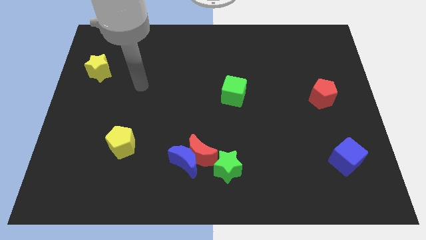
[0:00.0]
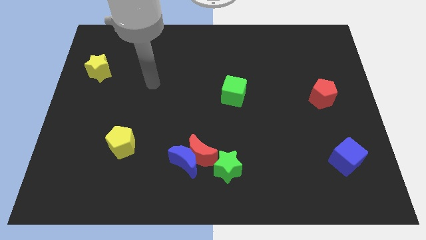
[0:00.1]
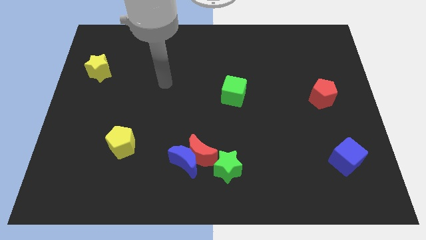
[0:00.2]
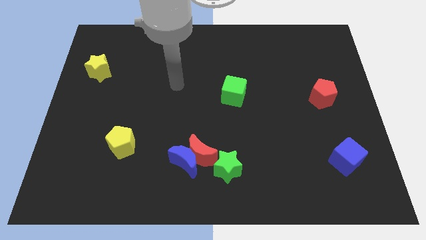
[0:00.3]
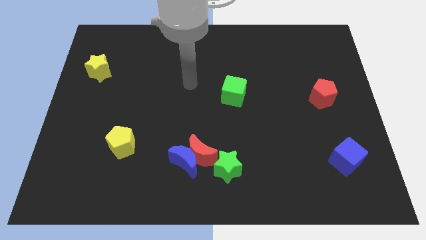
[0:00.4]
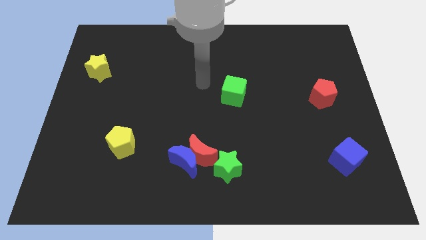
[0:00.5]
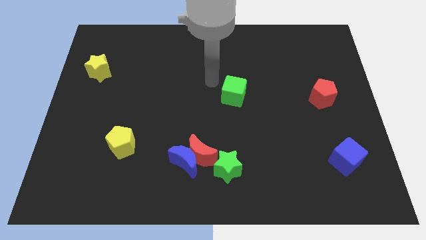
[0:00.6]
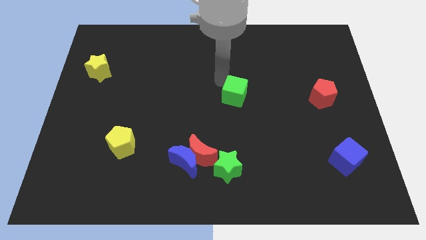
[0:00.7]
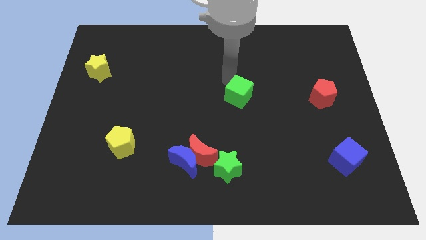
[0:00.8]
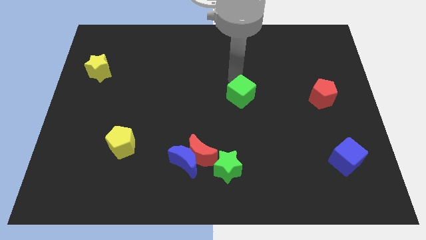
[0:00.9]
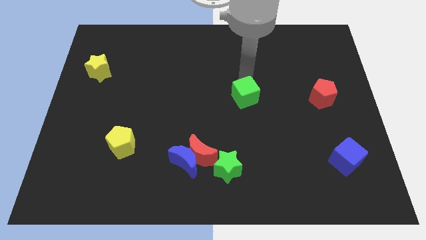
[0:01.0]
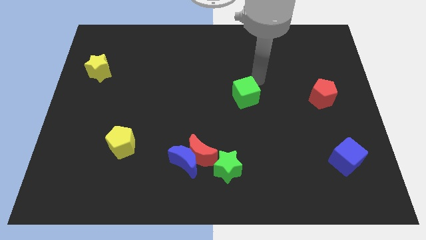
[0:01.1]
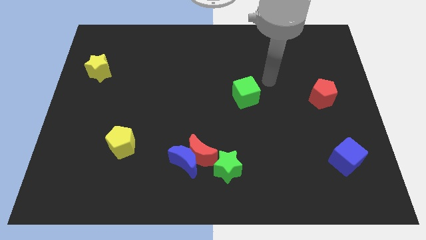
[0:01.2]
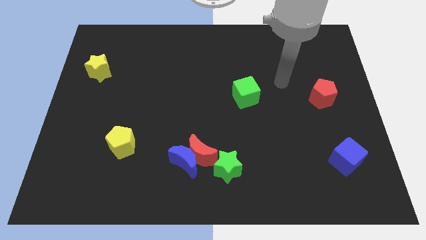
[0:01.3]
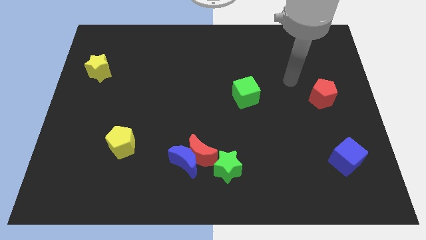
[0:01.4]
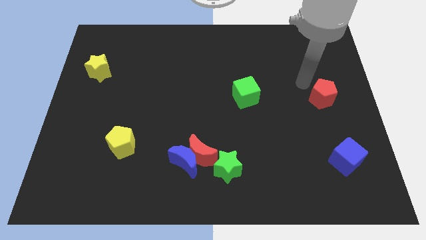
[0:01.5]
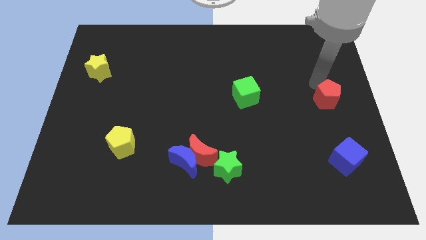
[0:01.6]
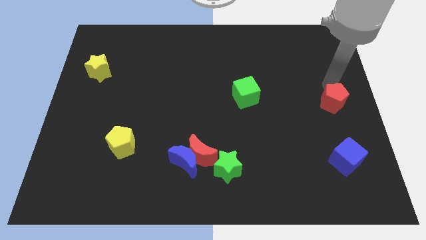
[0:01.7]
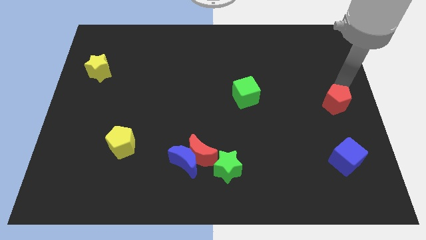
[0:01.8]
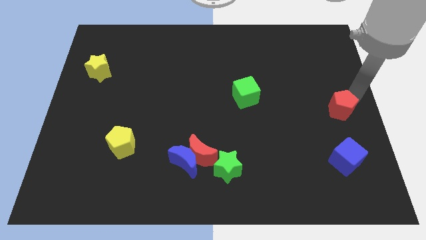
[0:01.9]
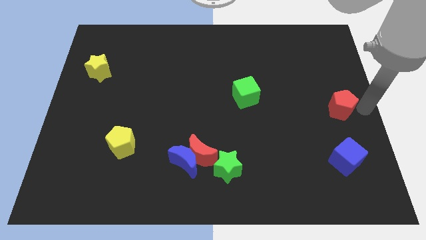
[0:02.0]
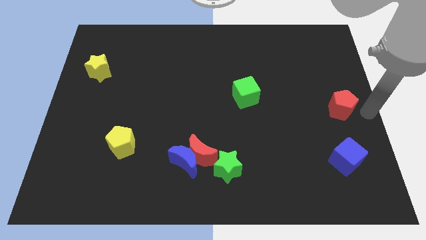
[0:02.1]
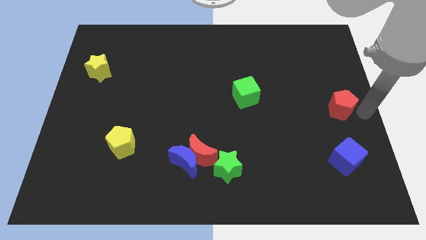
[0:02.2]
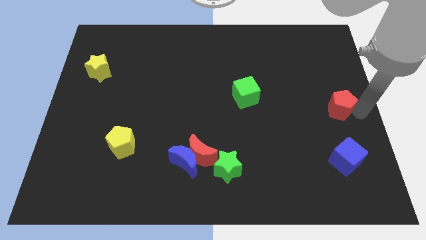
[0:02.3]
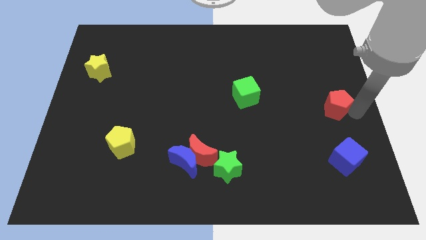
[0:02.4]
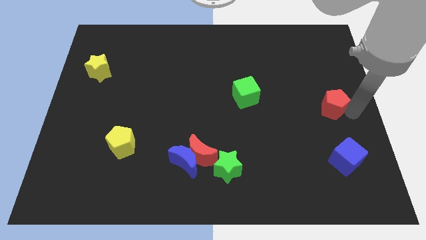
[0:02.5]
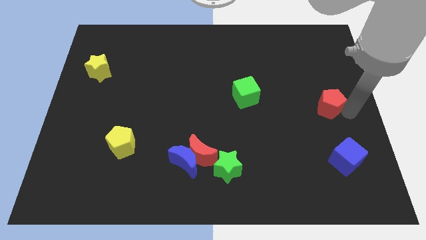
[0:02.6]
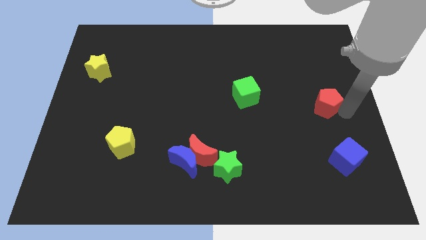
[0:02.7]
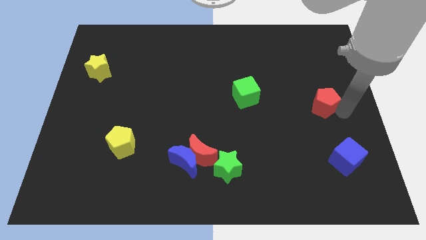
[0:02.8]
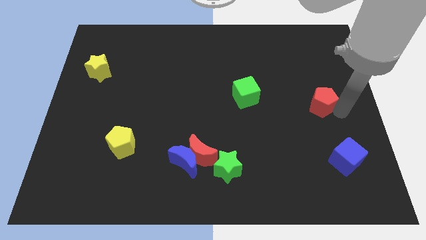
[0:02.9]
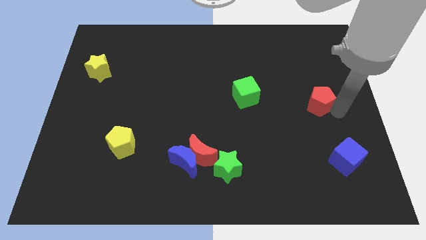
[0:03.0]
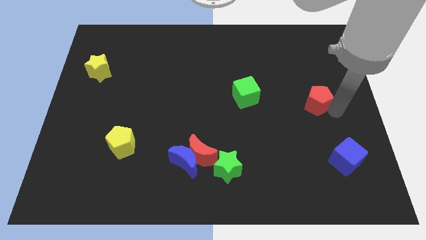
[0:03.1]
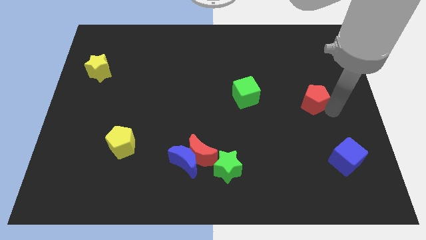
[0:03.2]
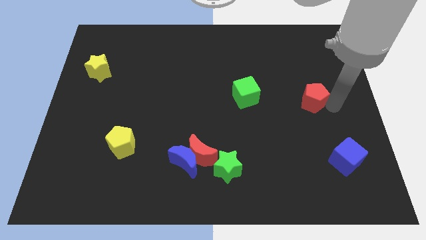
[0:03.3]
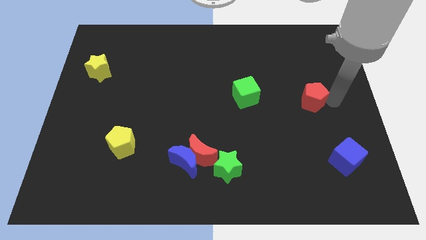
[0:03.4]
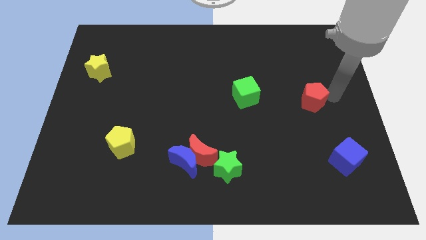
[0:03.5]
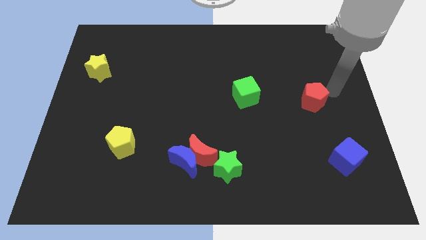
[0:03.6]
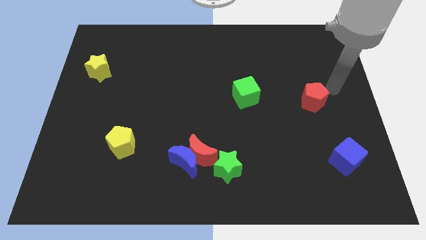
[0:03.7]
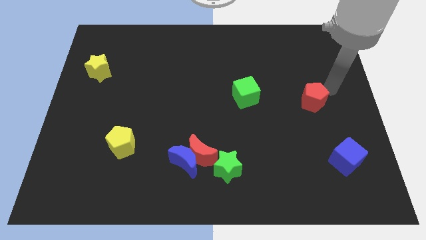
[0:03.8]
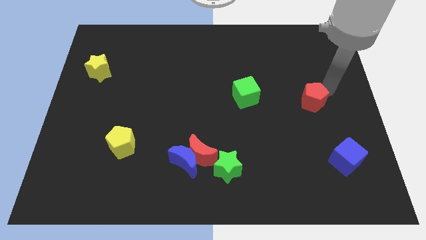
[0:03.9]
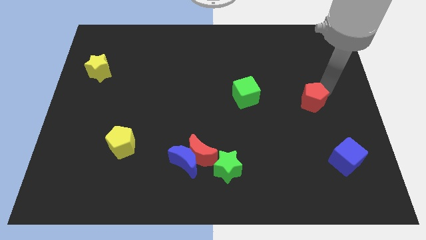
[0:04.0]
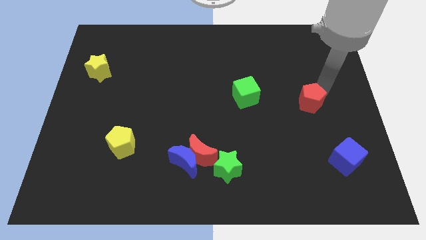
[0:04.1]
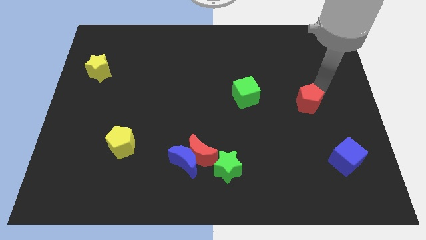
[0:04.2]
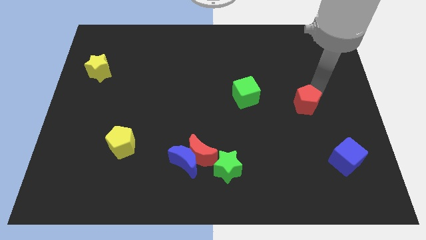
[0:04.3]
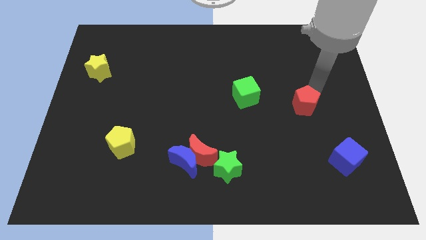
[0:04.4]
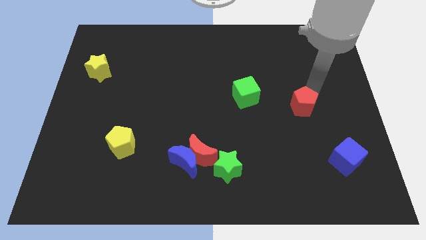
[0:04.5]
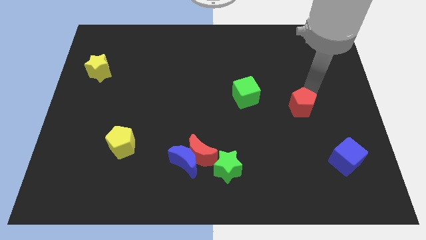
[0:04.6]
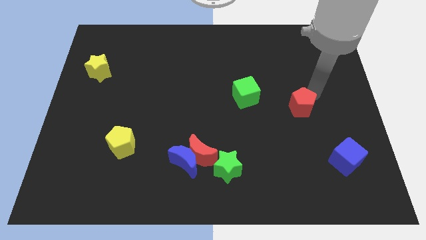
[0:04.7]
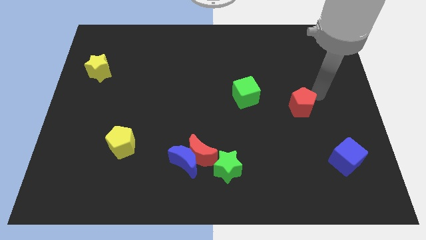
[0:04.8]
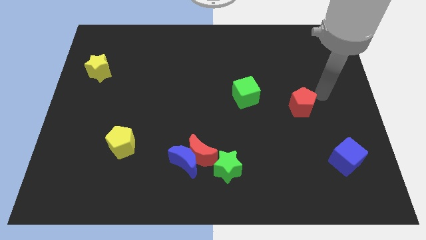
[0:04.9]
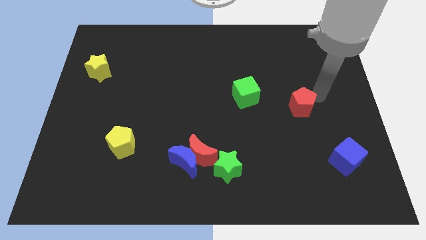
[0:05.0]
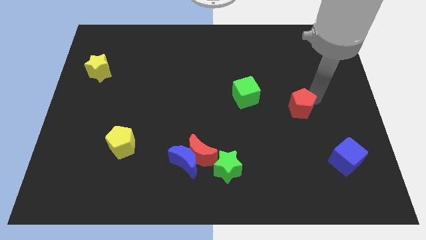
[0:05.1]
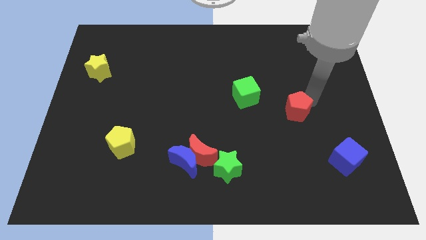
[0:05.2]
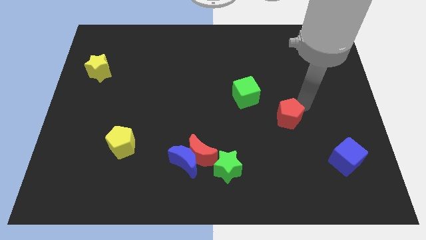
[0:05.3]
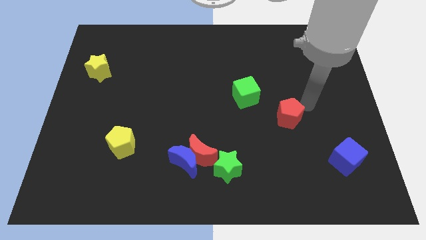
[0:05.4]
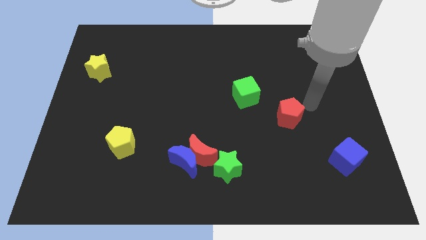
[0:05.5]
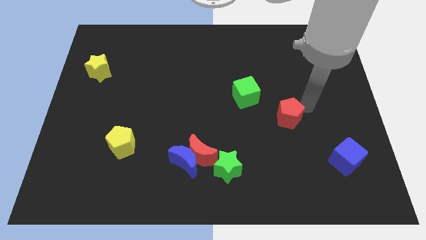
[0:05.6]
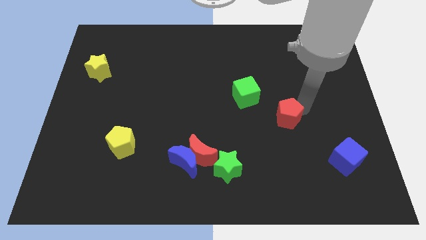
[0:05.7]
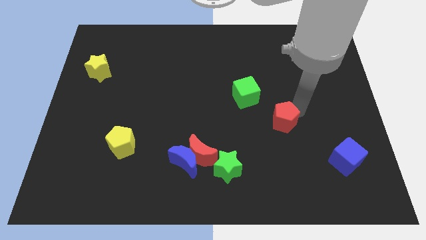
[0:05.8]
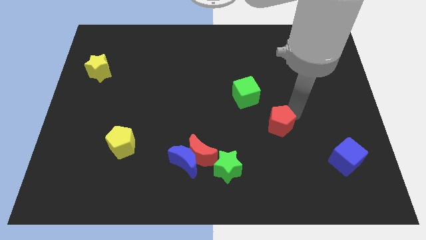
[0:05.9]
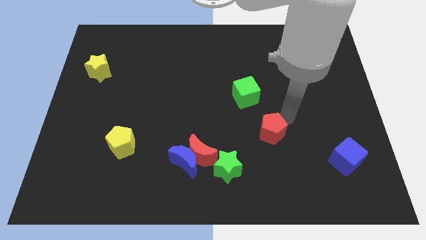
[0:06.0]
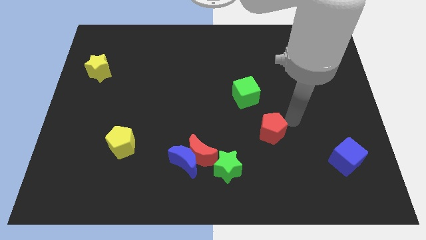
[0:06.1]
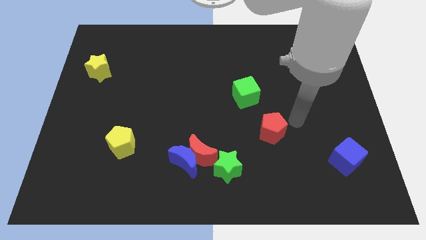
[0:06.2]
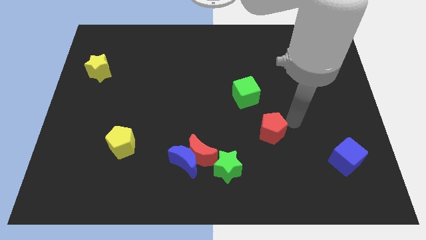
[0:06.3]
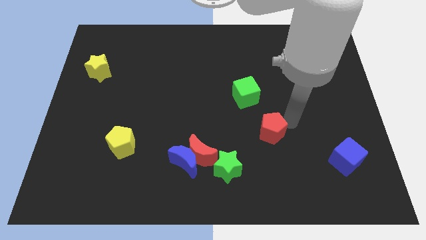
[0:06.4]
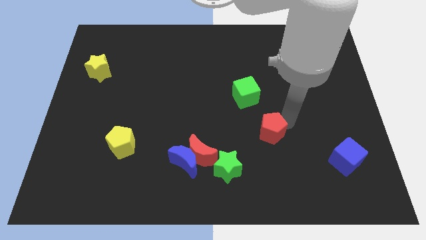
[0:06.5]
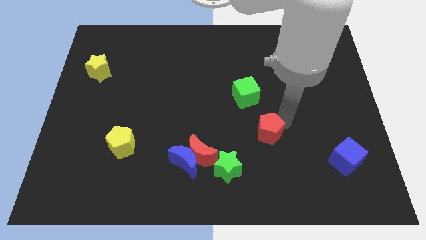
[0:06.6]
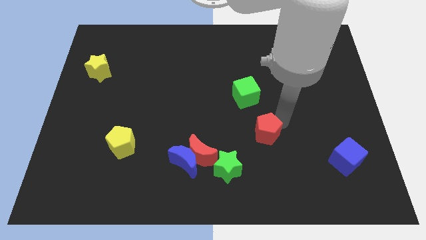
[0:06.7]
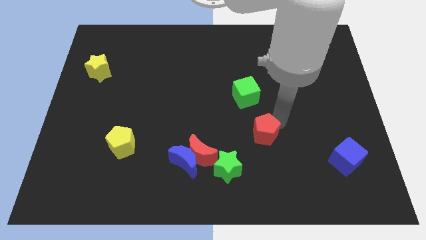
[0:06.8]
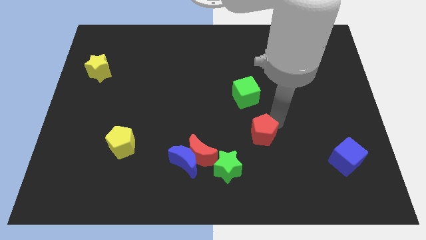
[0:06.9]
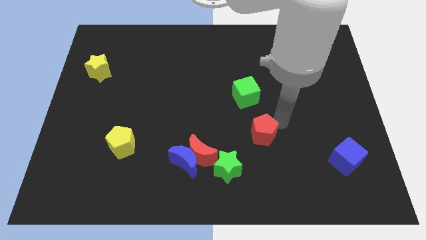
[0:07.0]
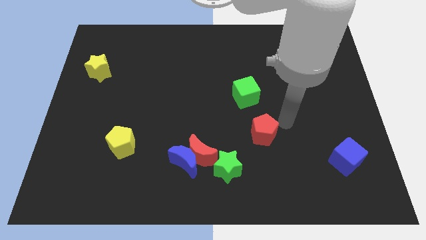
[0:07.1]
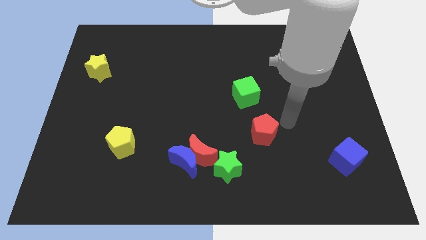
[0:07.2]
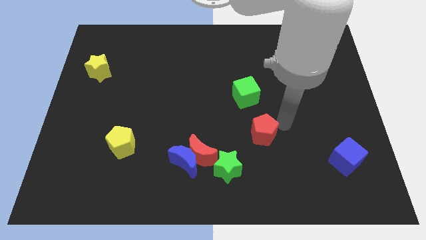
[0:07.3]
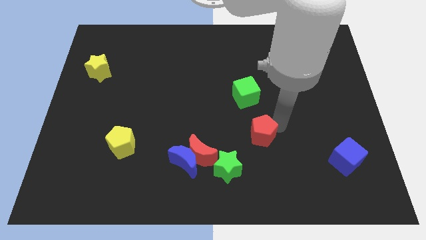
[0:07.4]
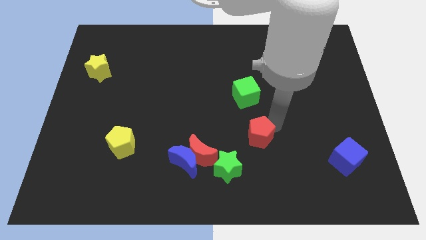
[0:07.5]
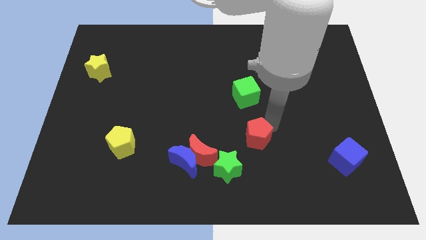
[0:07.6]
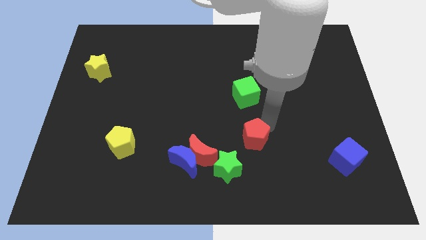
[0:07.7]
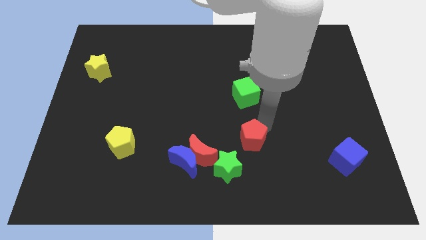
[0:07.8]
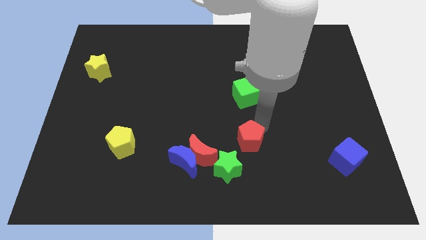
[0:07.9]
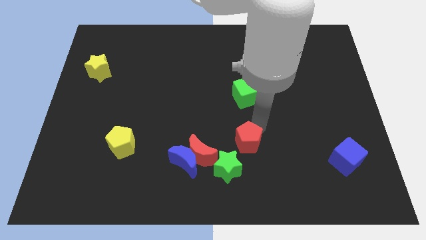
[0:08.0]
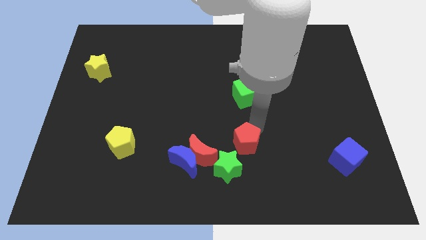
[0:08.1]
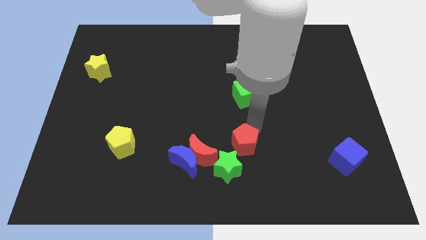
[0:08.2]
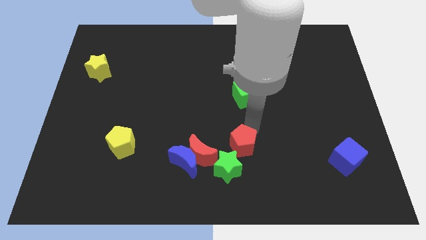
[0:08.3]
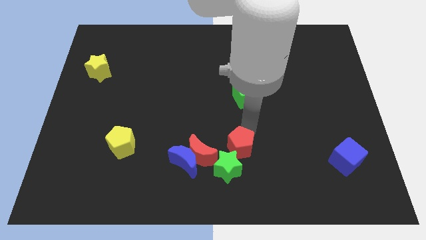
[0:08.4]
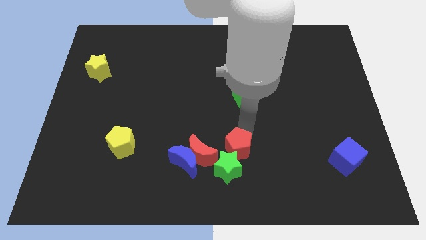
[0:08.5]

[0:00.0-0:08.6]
put the red pentagon next to the green star
